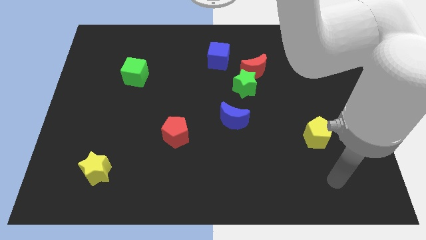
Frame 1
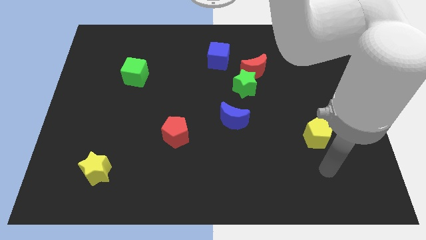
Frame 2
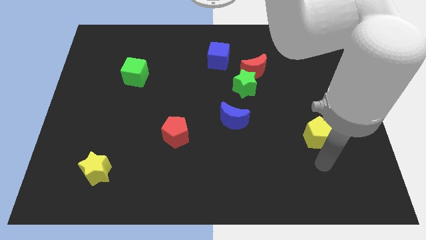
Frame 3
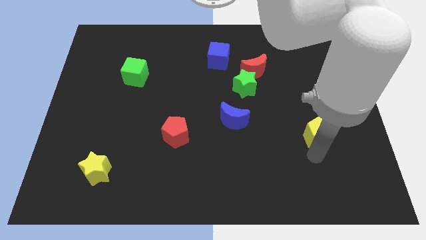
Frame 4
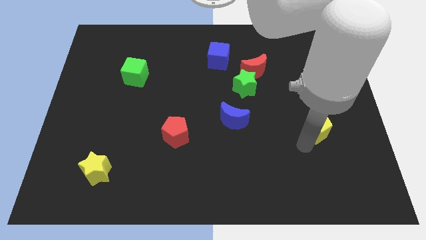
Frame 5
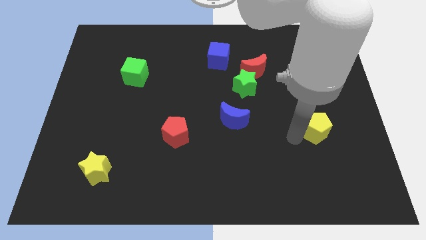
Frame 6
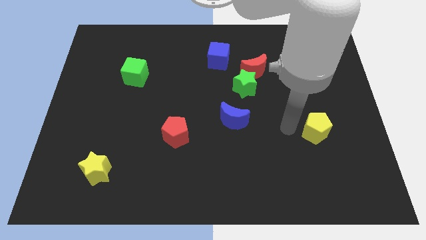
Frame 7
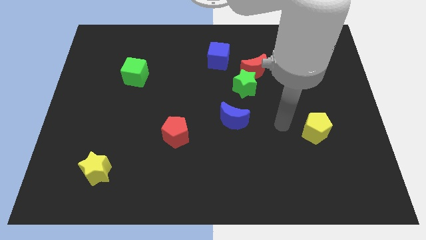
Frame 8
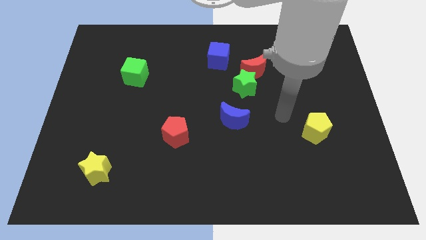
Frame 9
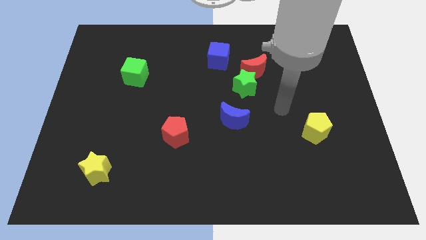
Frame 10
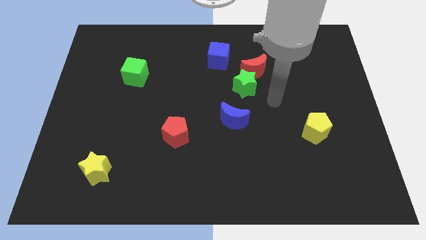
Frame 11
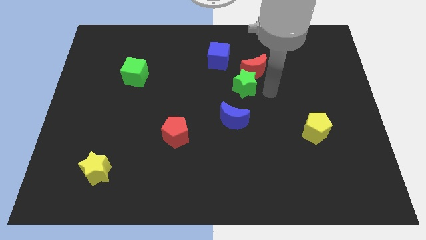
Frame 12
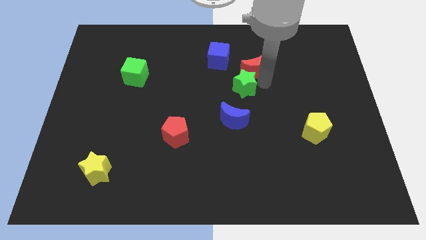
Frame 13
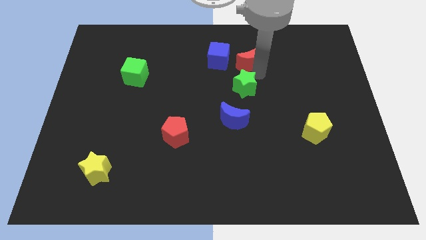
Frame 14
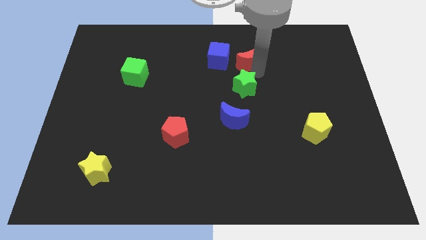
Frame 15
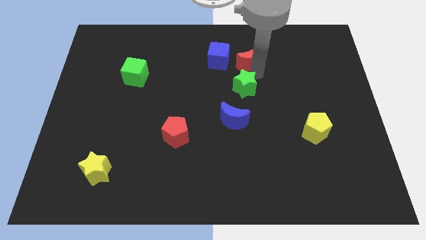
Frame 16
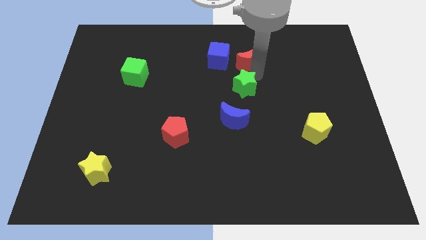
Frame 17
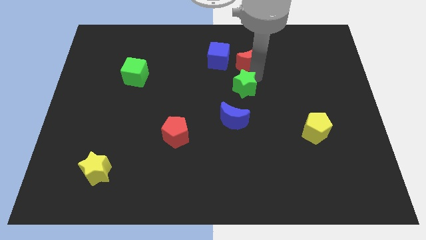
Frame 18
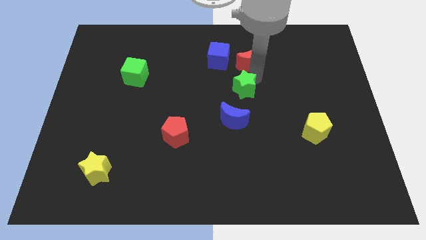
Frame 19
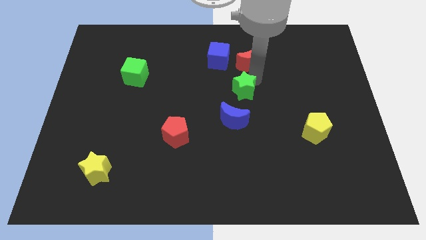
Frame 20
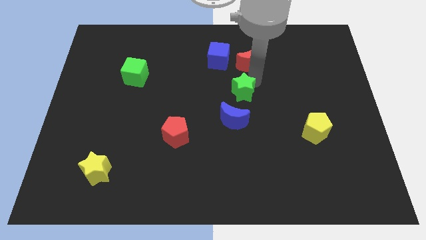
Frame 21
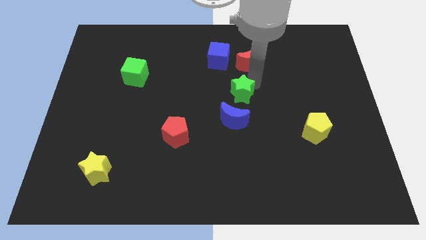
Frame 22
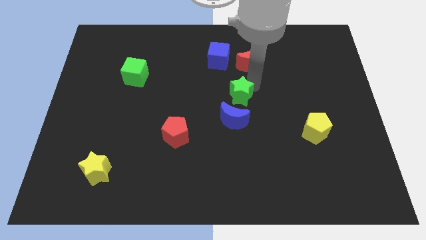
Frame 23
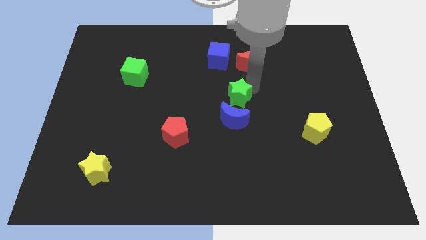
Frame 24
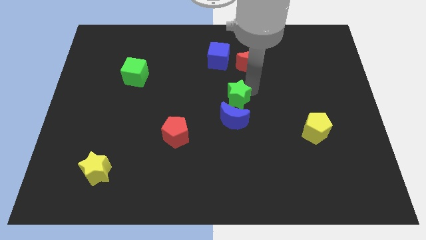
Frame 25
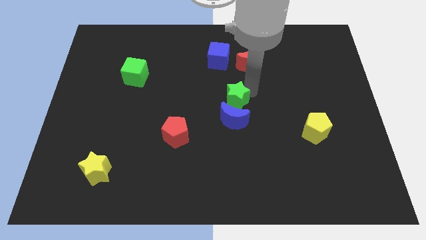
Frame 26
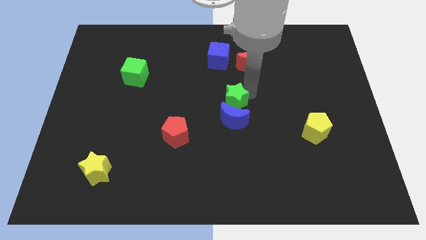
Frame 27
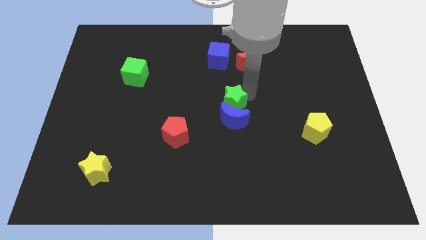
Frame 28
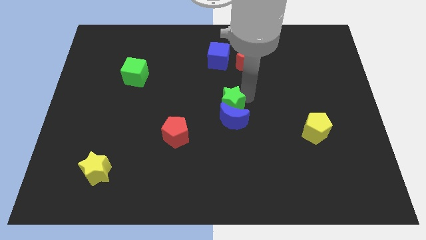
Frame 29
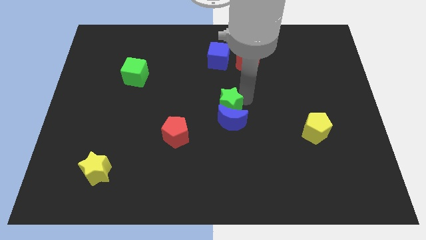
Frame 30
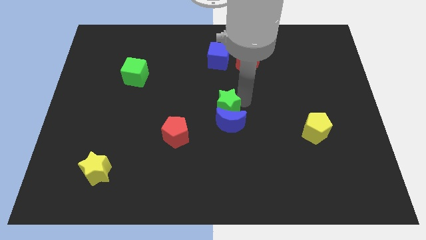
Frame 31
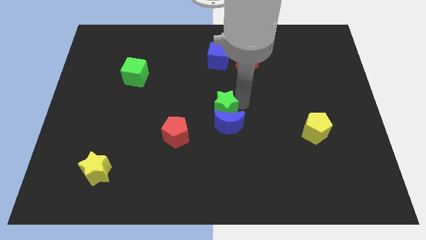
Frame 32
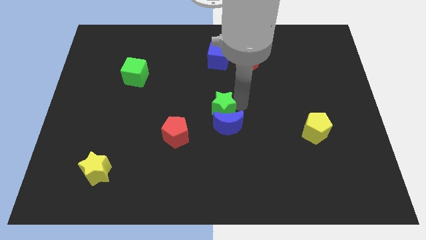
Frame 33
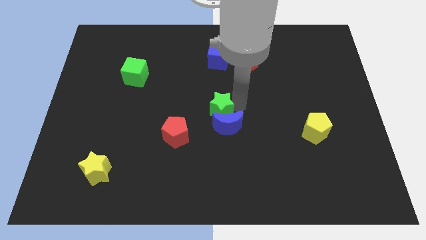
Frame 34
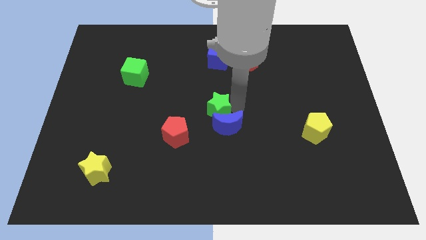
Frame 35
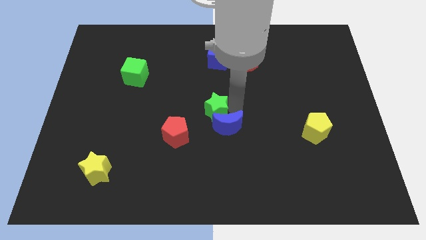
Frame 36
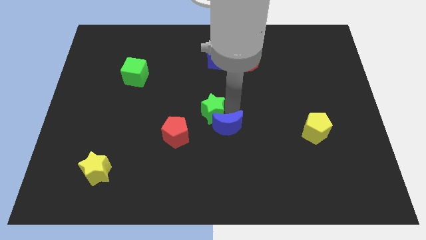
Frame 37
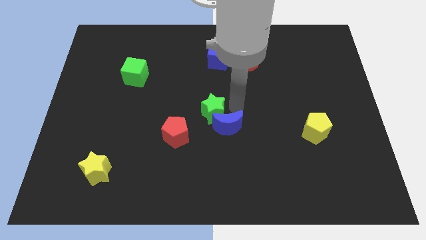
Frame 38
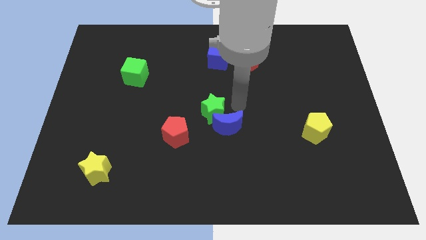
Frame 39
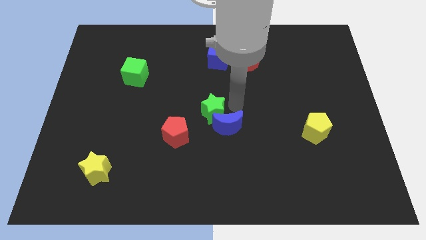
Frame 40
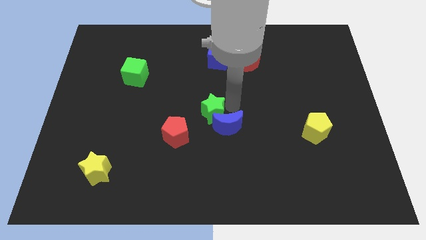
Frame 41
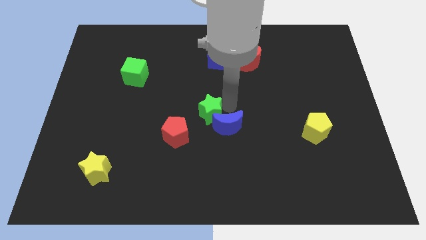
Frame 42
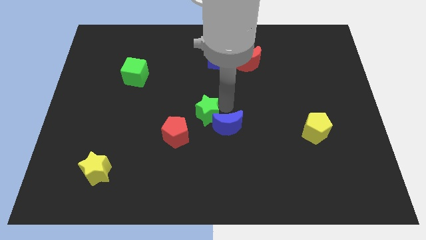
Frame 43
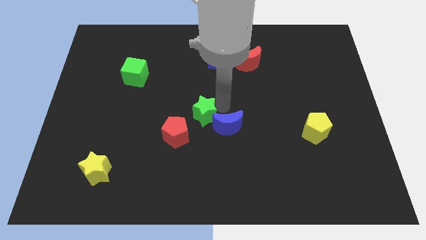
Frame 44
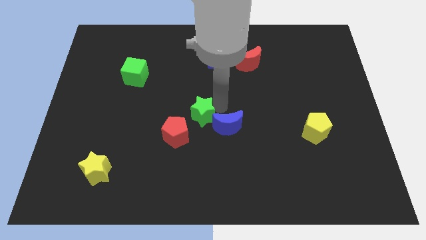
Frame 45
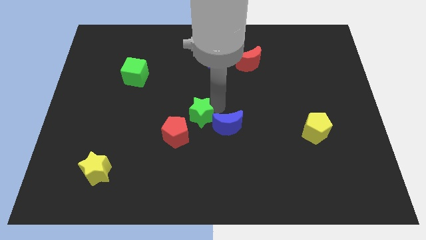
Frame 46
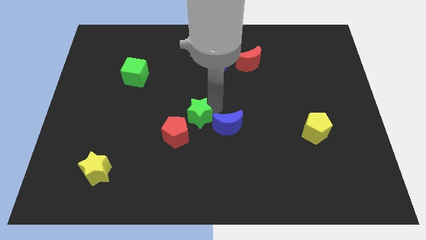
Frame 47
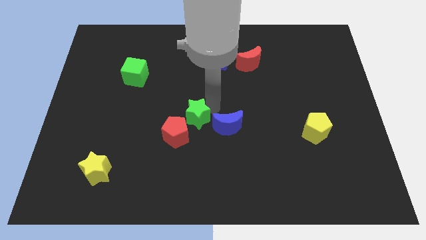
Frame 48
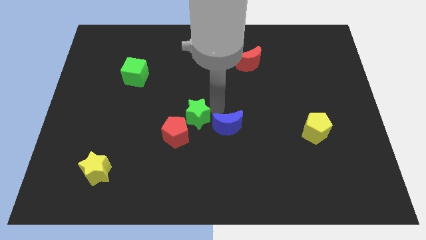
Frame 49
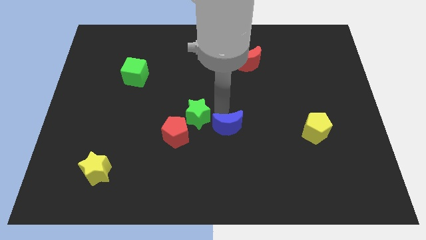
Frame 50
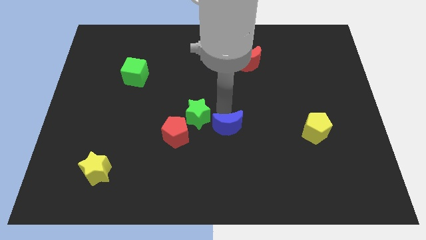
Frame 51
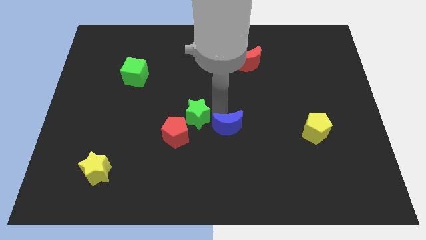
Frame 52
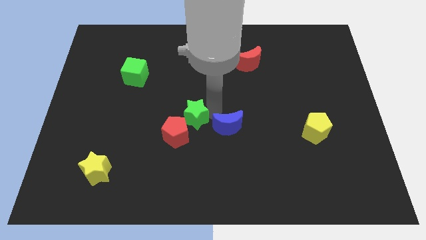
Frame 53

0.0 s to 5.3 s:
push the green star close to the red pentagon

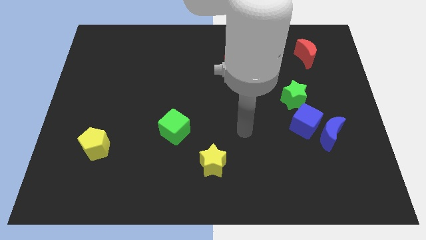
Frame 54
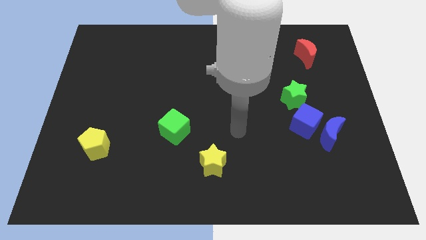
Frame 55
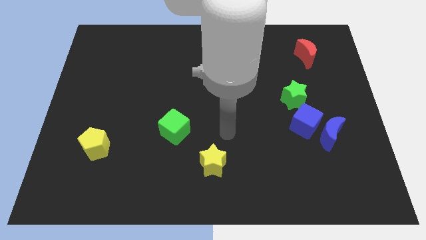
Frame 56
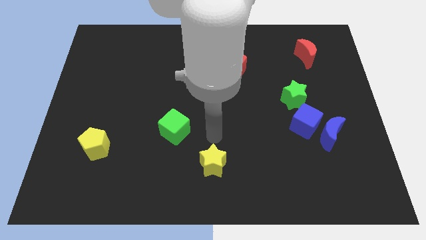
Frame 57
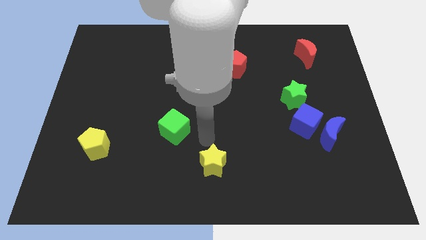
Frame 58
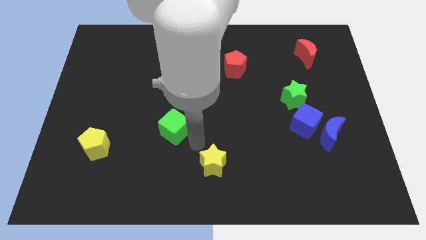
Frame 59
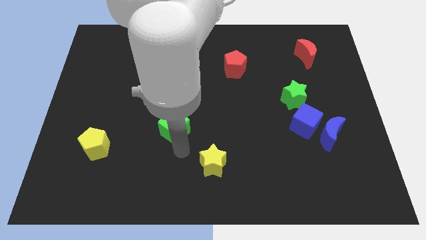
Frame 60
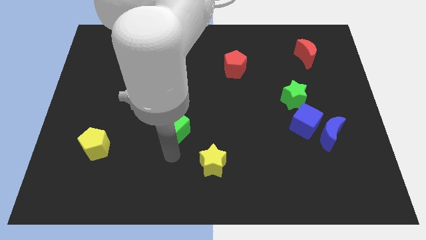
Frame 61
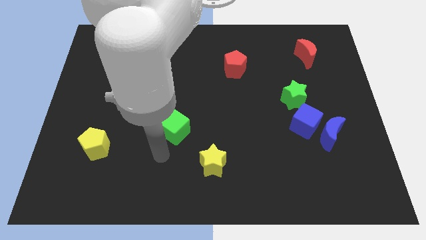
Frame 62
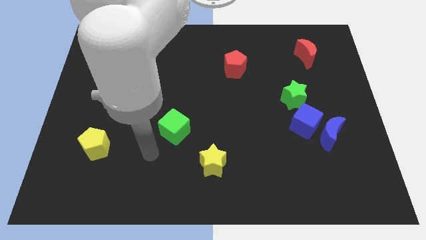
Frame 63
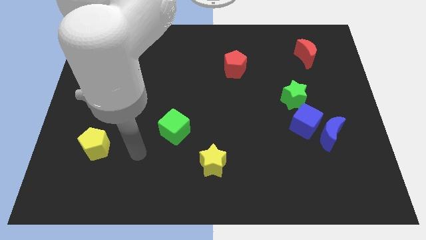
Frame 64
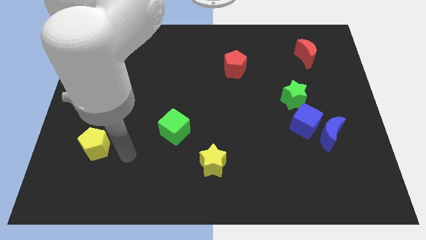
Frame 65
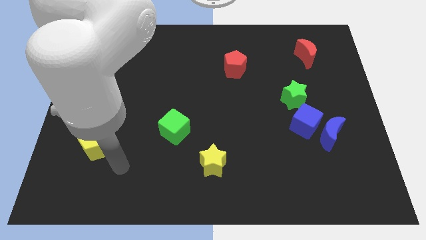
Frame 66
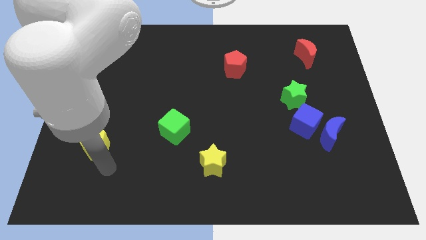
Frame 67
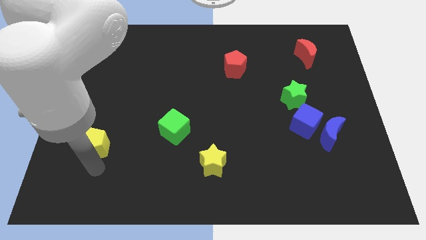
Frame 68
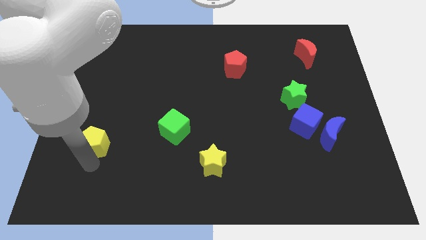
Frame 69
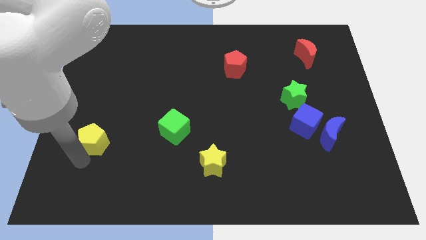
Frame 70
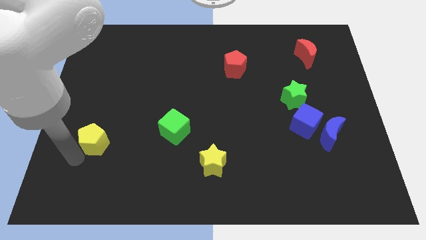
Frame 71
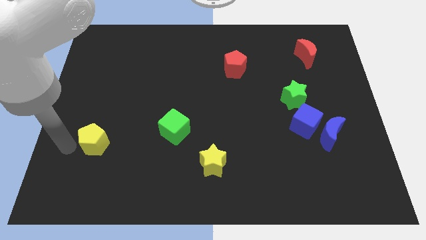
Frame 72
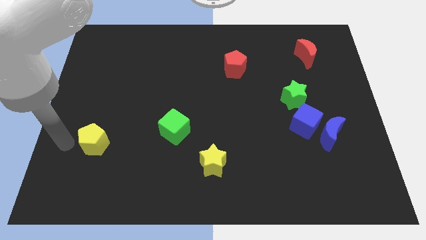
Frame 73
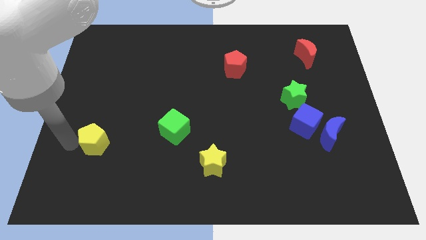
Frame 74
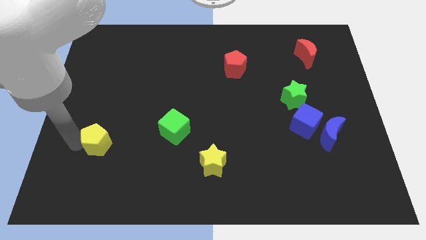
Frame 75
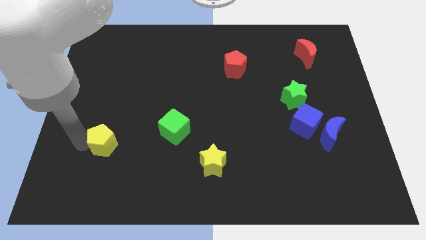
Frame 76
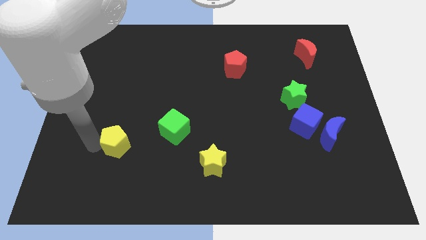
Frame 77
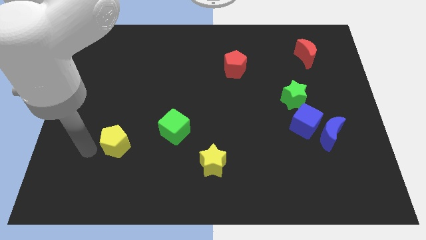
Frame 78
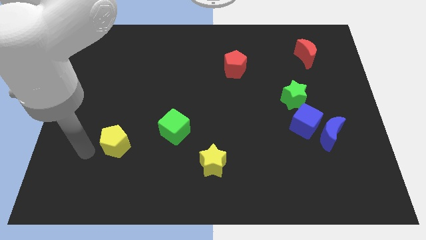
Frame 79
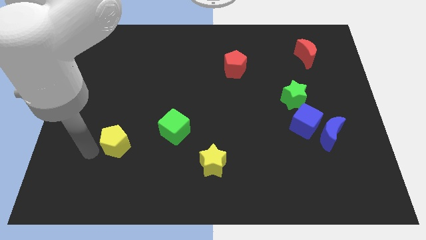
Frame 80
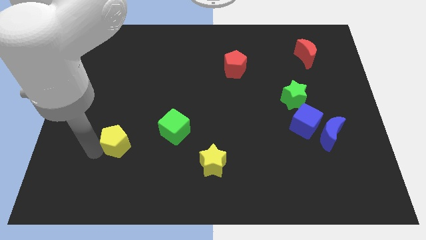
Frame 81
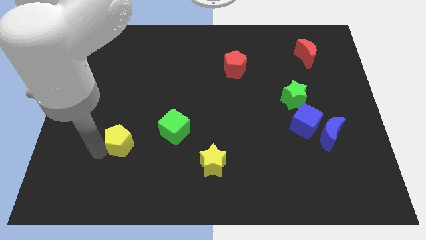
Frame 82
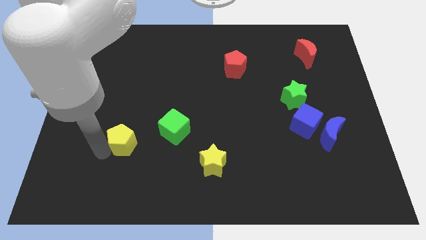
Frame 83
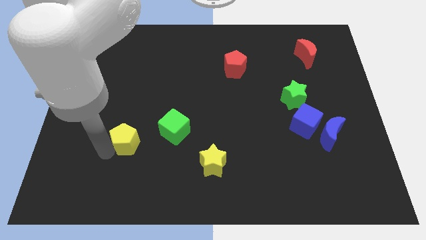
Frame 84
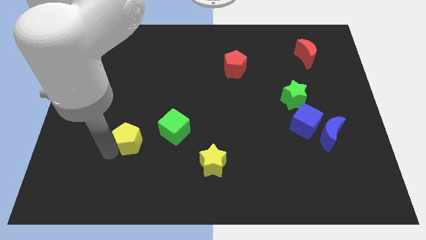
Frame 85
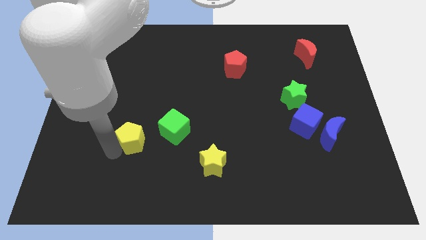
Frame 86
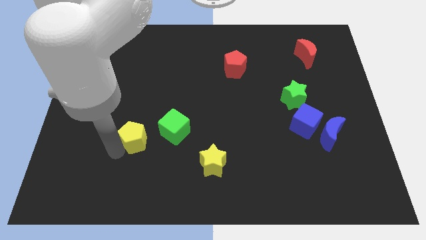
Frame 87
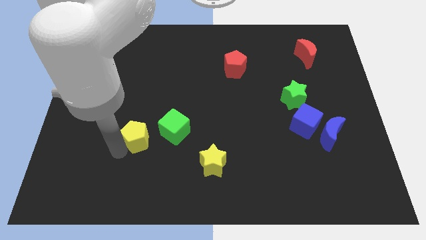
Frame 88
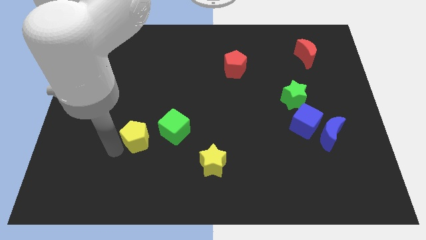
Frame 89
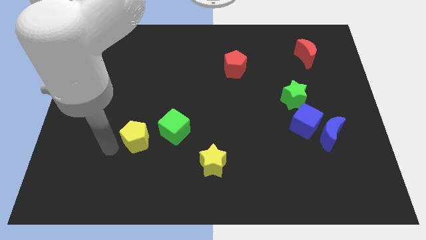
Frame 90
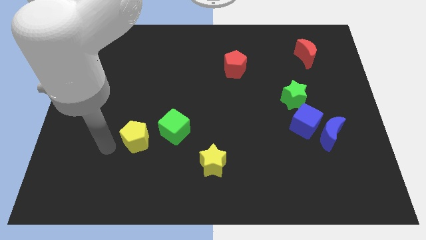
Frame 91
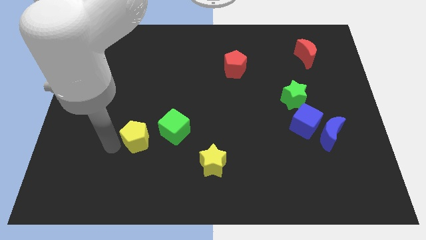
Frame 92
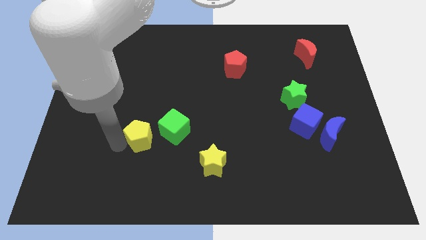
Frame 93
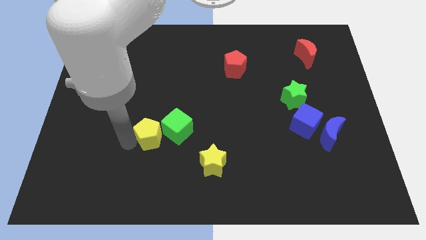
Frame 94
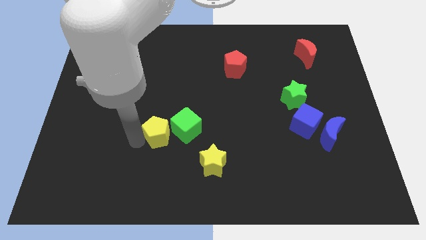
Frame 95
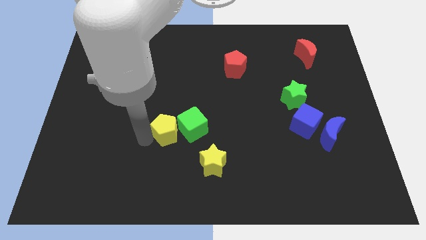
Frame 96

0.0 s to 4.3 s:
move the yellow pentagon close to the green cube
